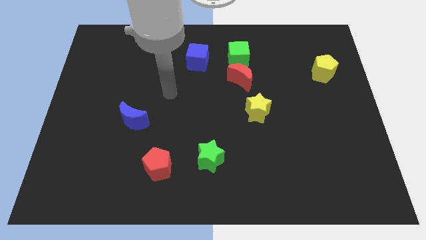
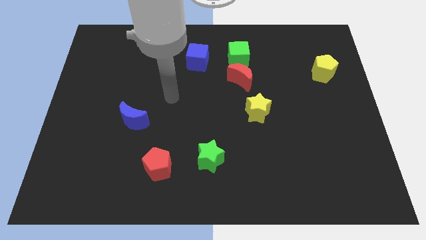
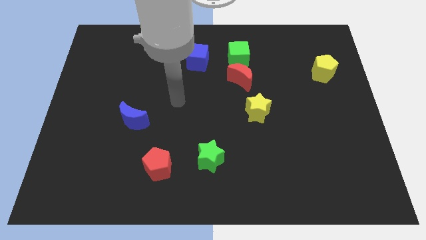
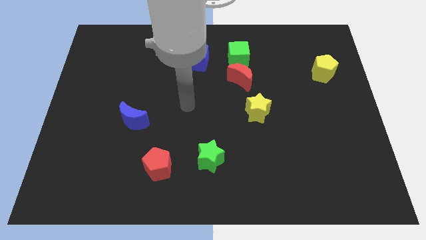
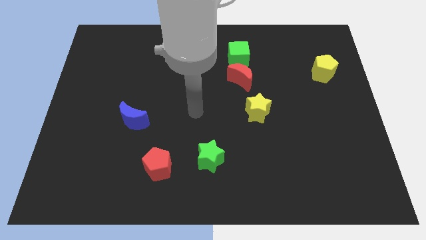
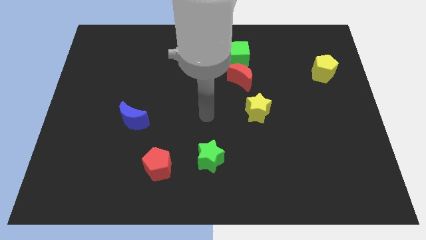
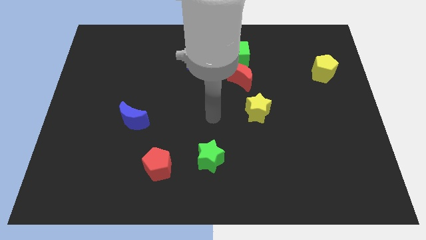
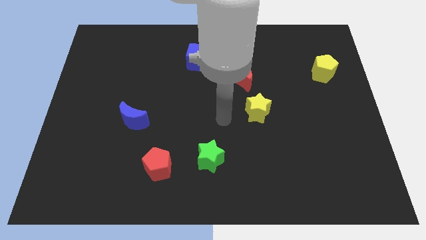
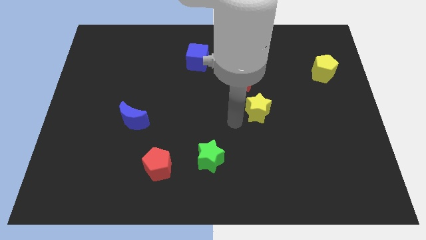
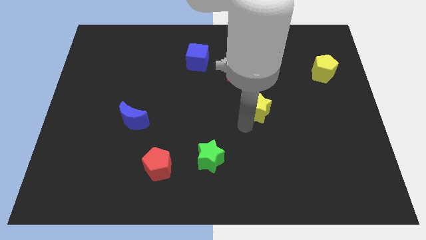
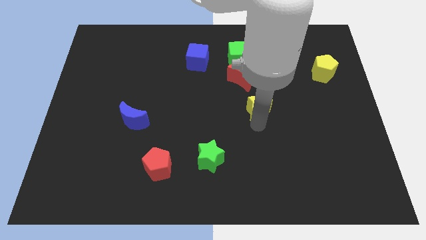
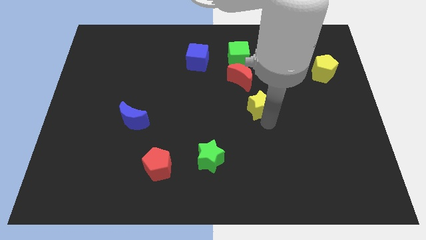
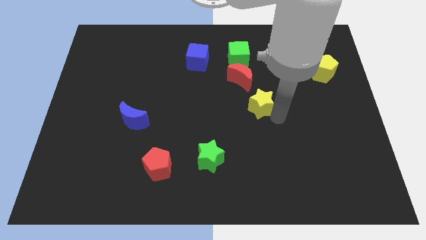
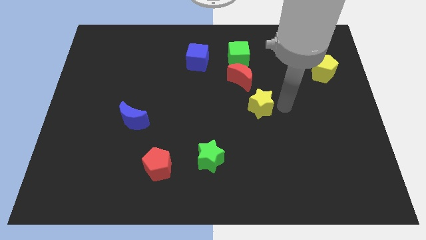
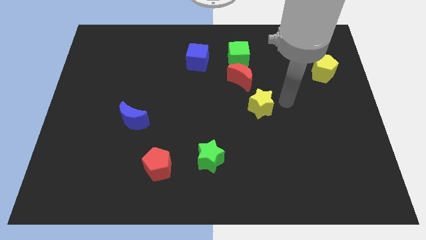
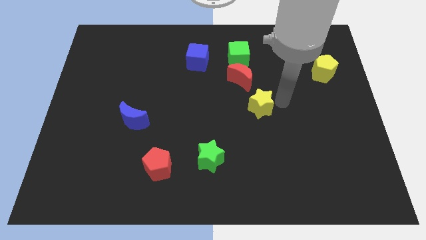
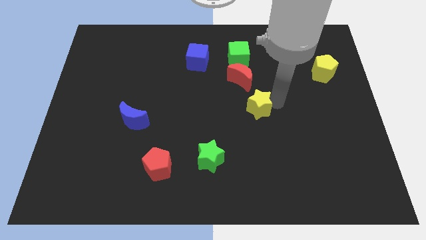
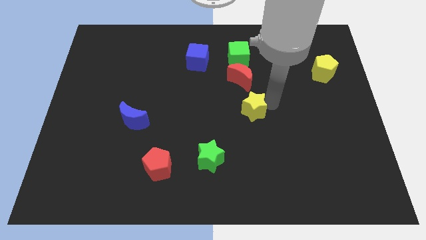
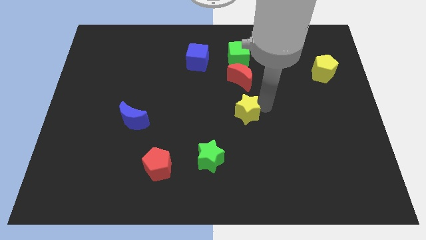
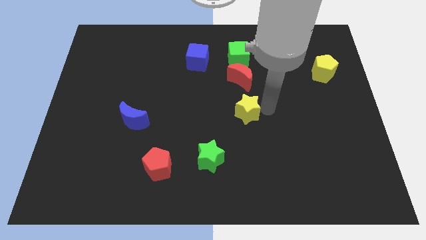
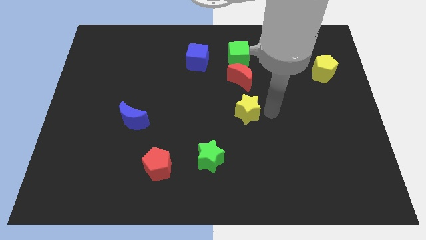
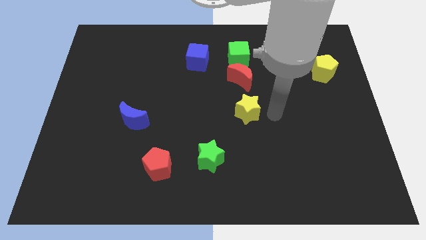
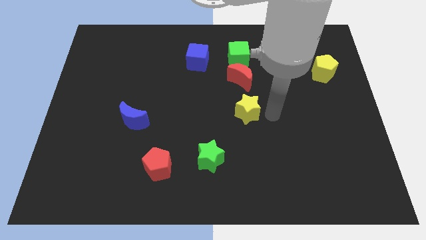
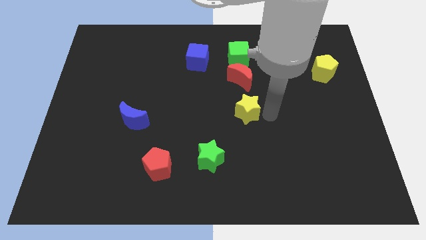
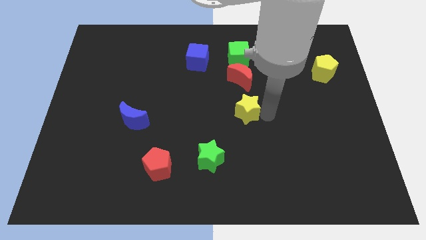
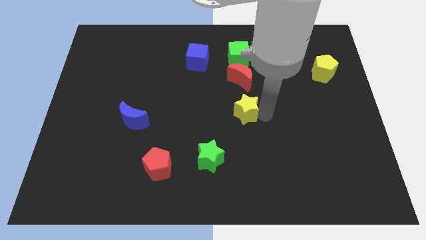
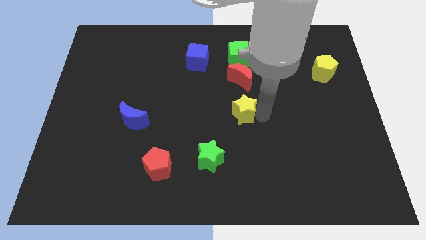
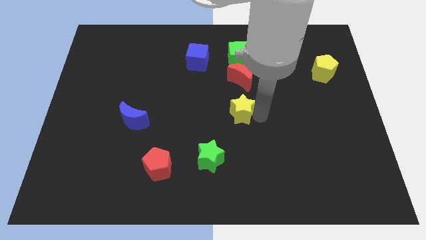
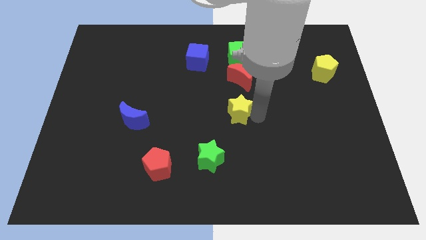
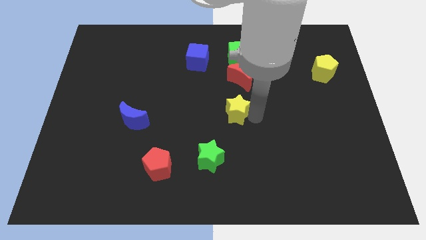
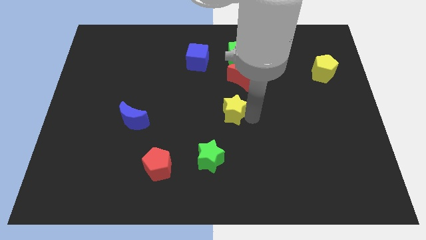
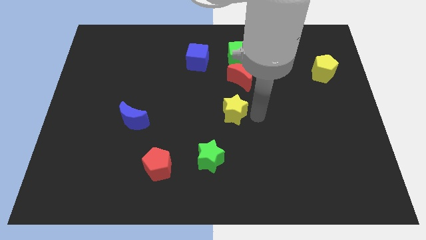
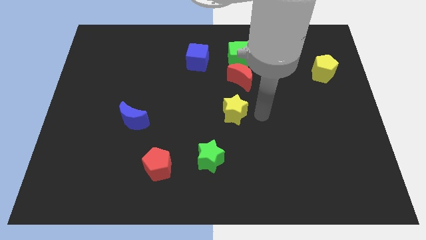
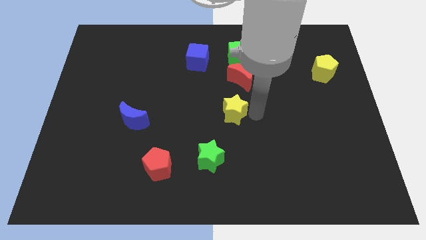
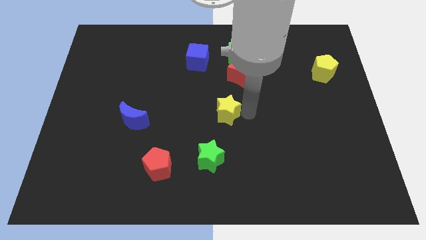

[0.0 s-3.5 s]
push the yellow star a bit to the left

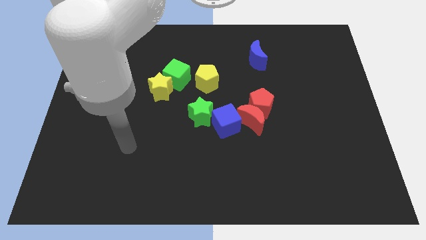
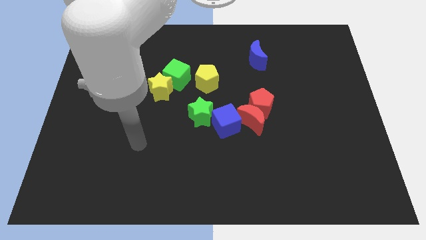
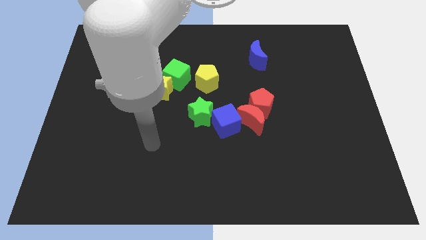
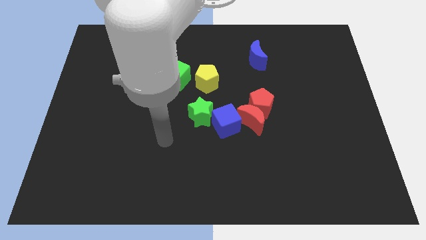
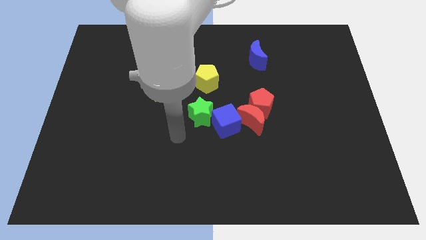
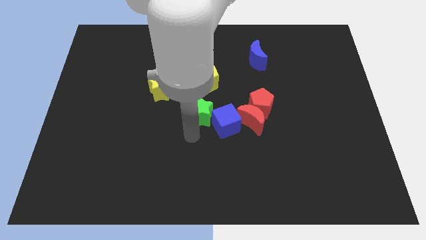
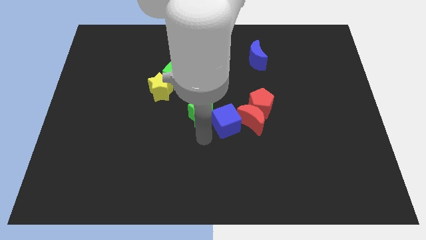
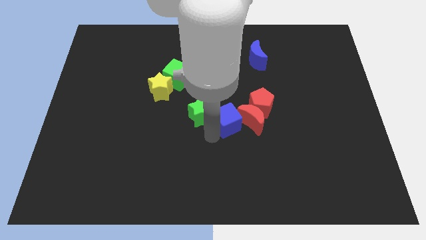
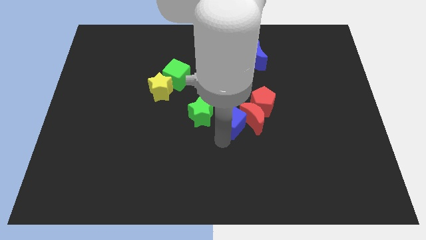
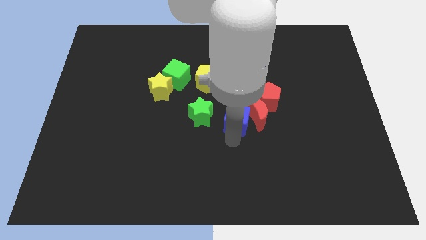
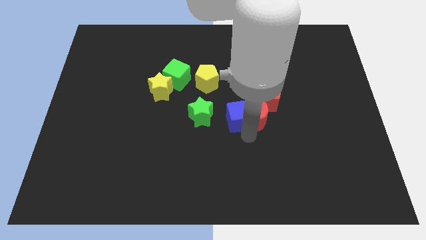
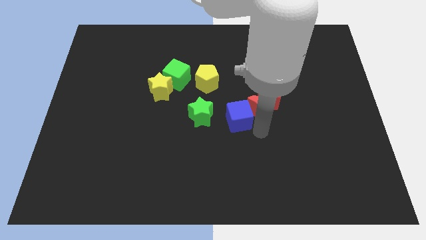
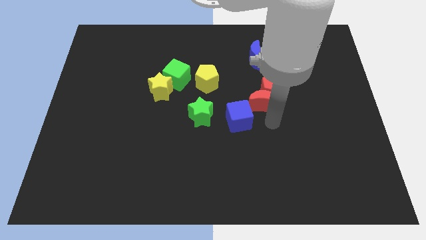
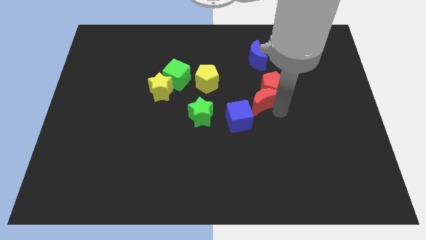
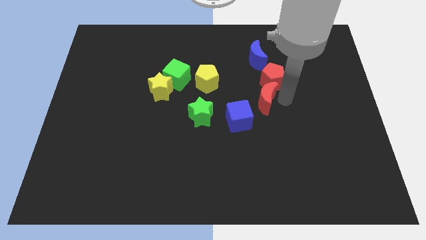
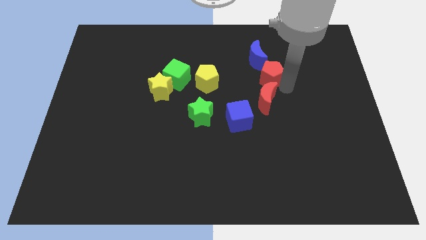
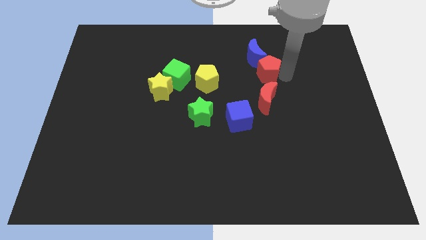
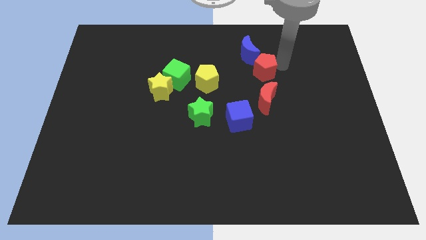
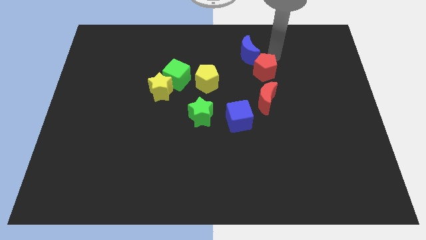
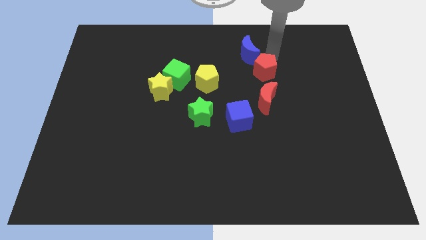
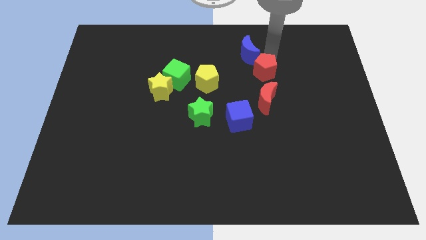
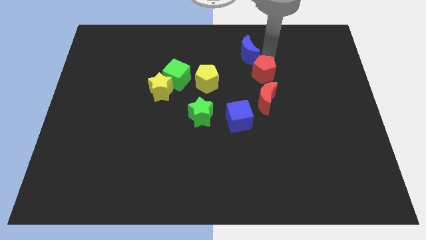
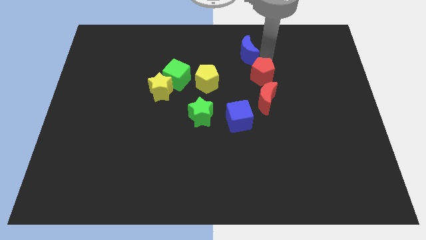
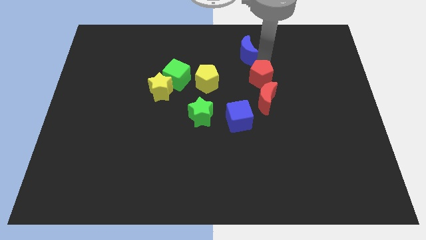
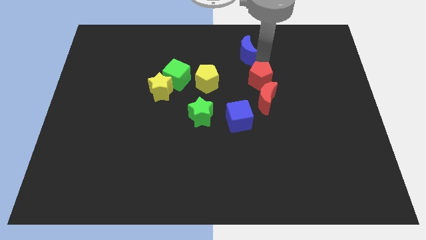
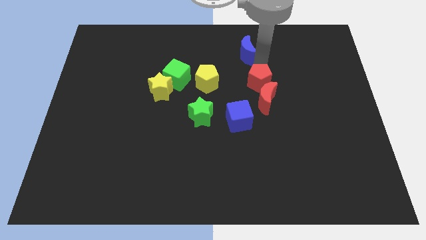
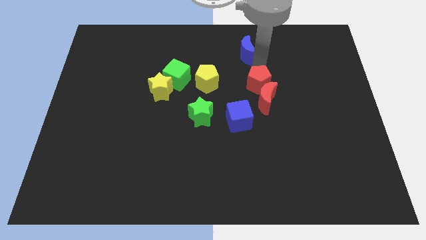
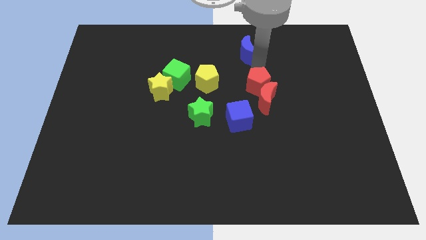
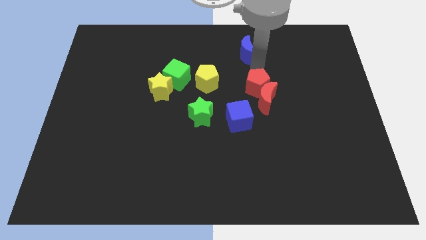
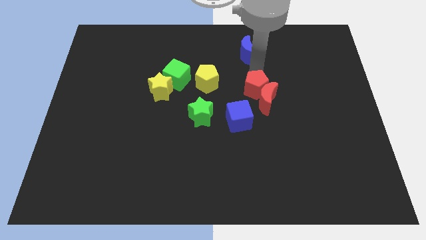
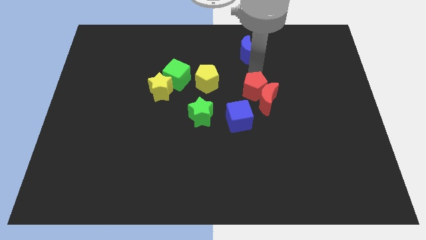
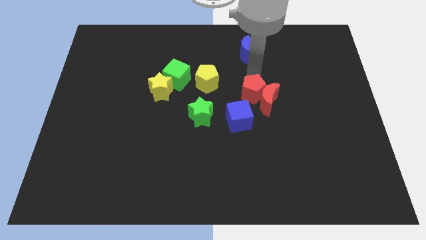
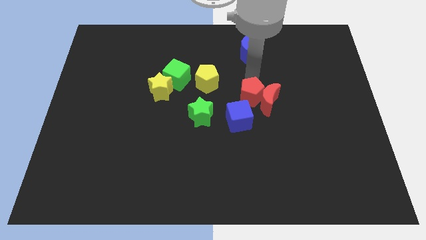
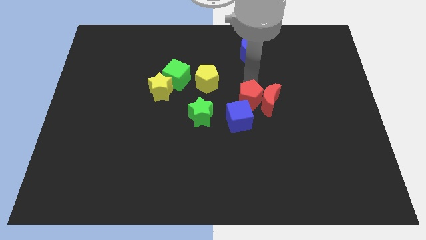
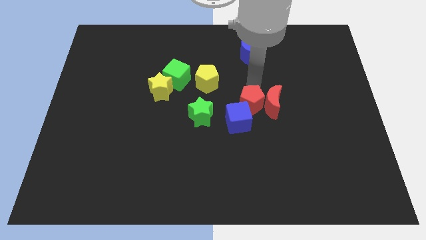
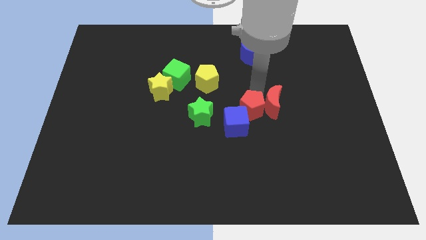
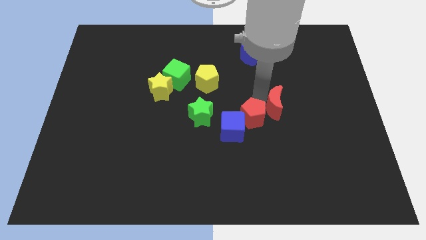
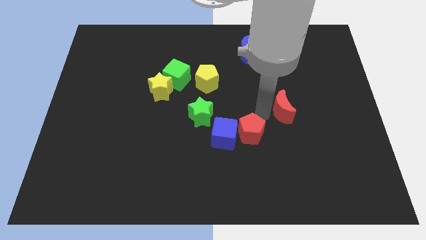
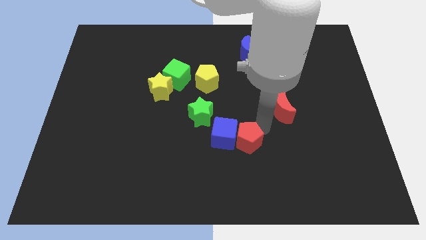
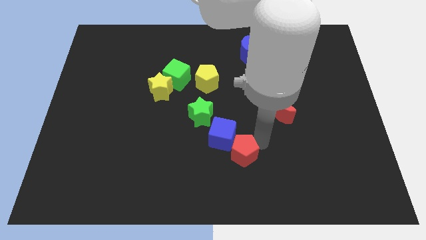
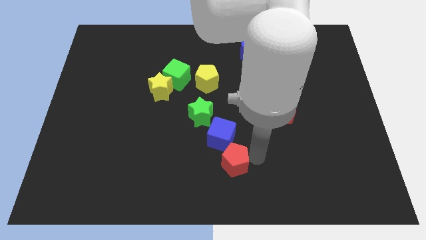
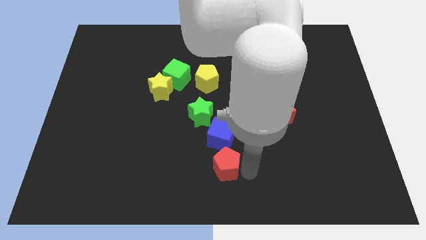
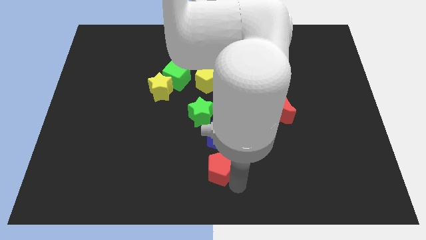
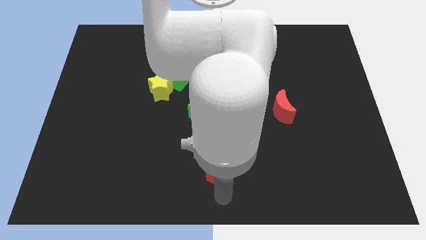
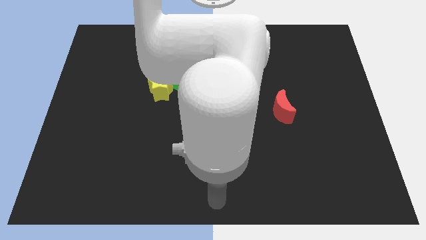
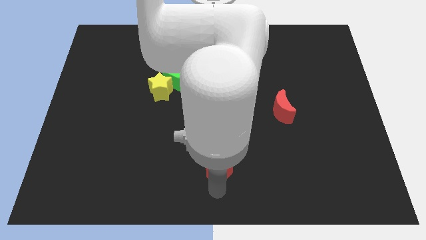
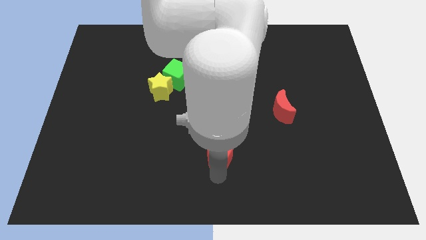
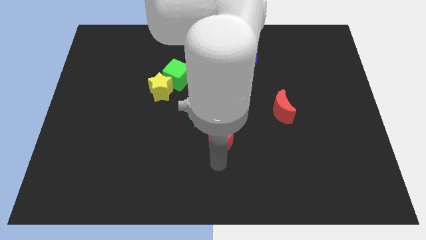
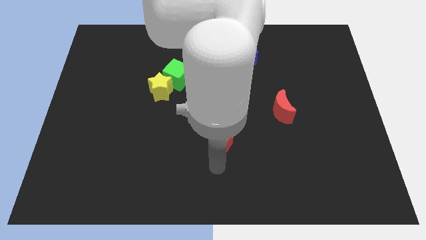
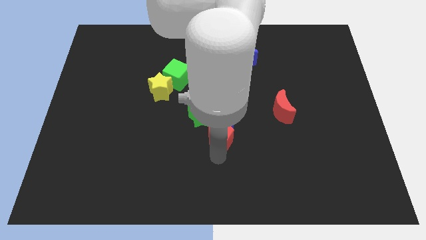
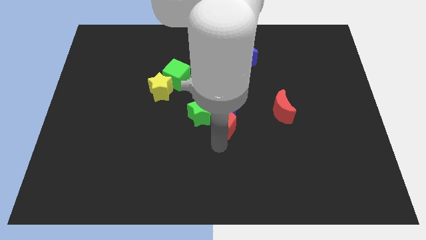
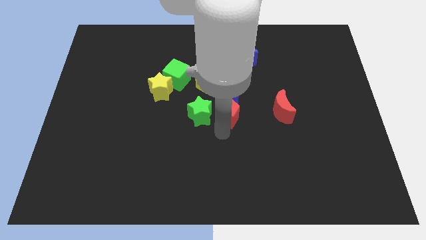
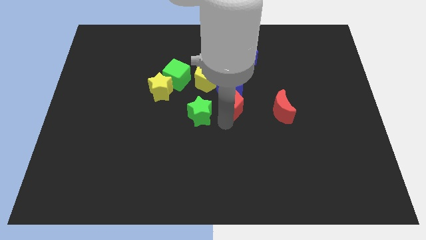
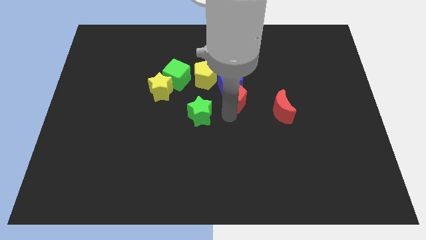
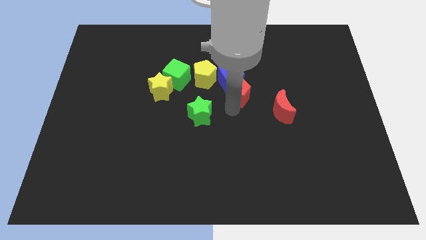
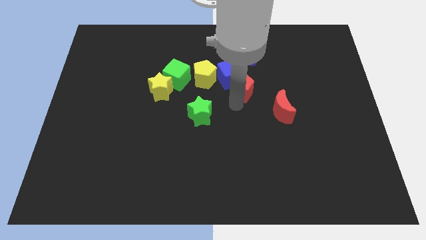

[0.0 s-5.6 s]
slightly push the red pentagon upwards and left diagonally
